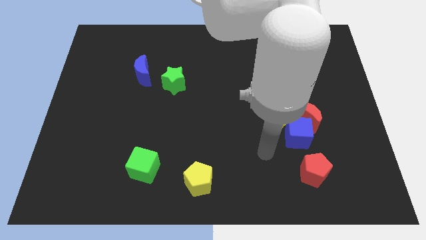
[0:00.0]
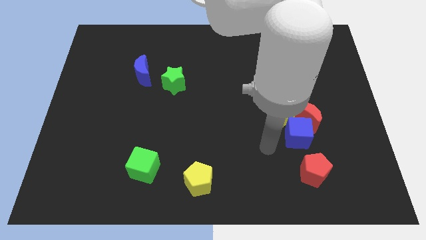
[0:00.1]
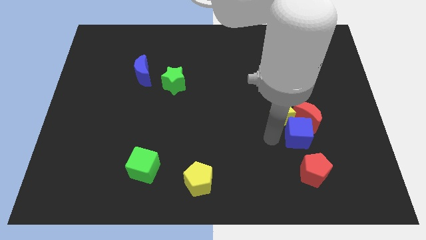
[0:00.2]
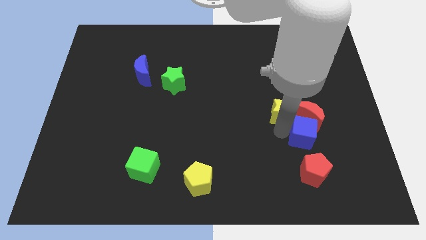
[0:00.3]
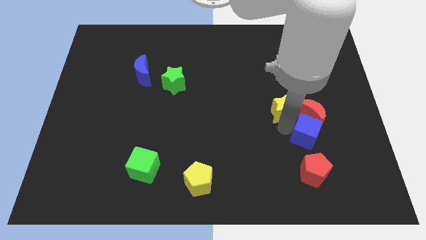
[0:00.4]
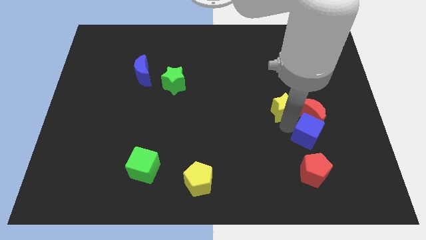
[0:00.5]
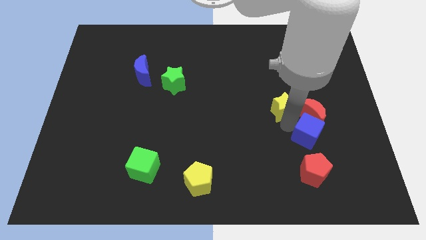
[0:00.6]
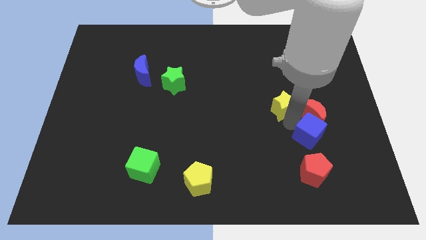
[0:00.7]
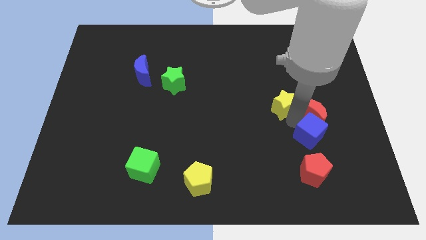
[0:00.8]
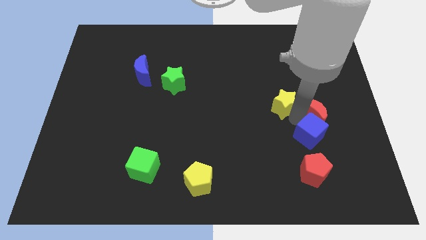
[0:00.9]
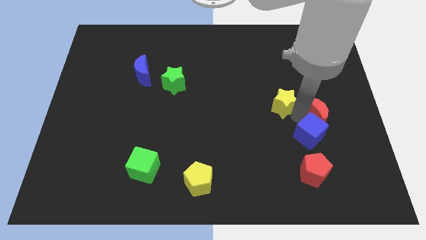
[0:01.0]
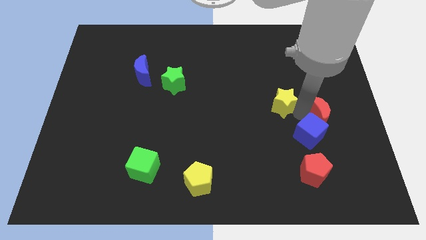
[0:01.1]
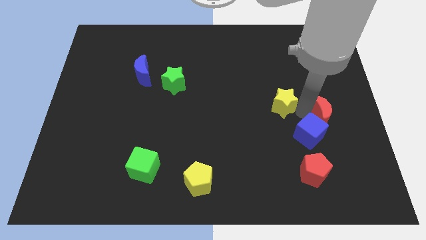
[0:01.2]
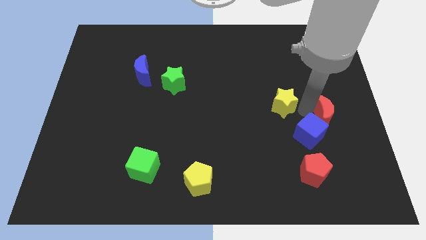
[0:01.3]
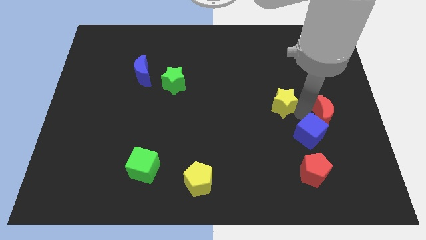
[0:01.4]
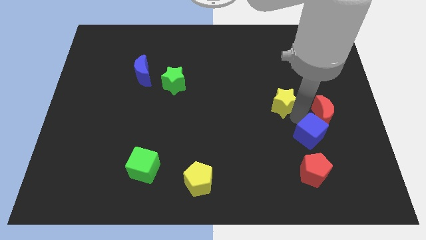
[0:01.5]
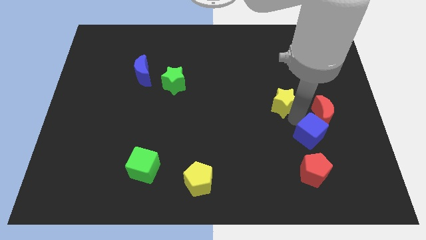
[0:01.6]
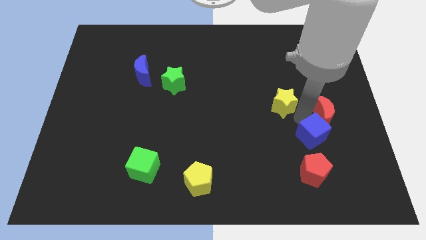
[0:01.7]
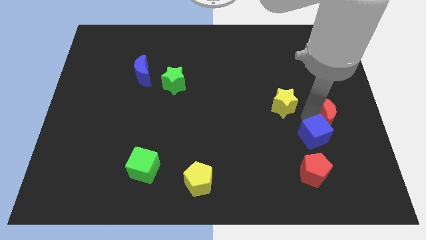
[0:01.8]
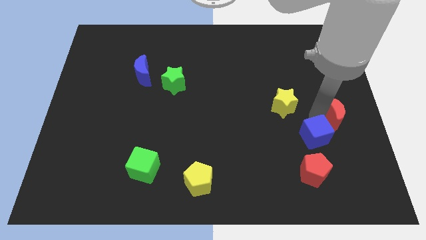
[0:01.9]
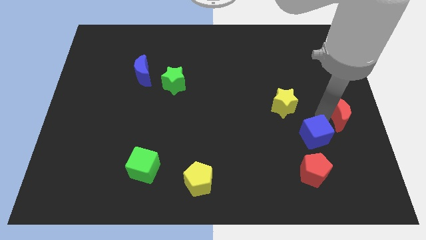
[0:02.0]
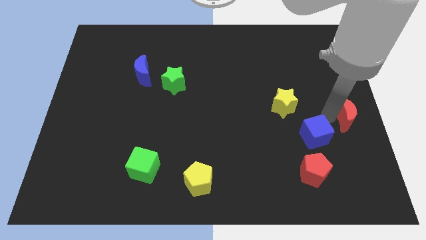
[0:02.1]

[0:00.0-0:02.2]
separate the red moon from the blue cube and yellow star

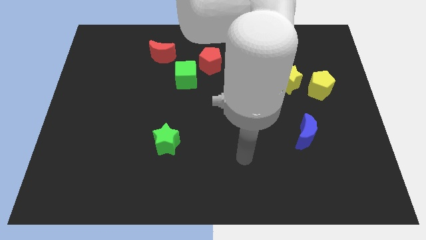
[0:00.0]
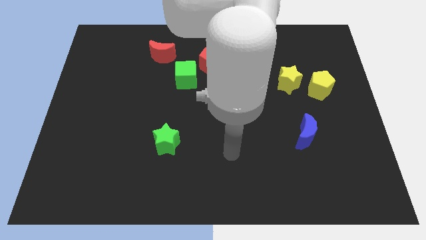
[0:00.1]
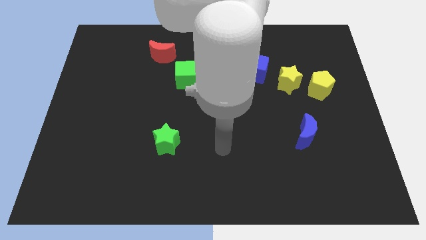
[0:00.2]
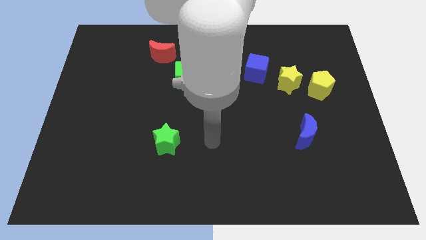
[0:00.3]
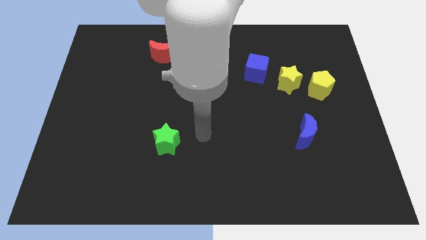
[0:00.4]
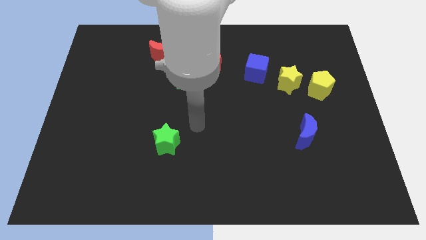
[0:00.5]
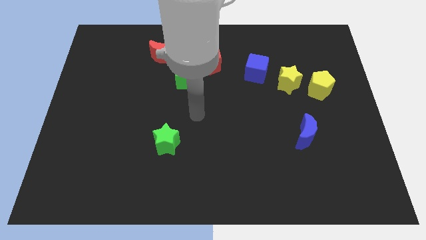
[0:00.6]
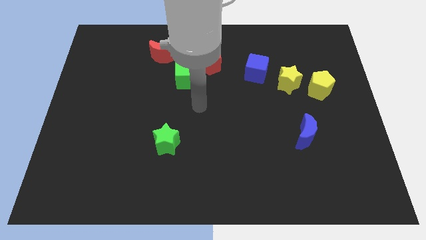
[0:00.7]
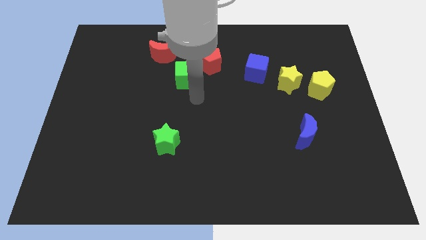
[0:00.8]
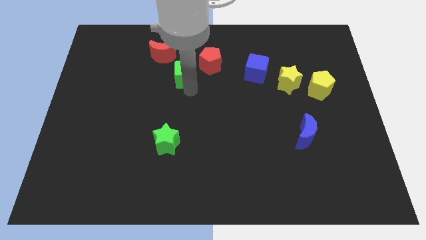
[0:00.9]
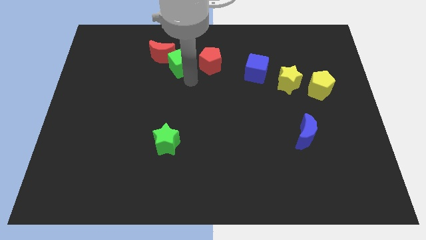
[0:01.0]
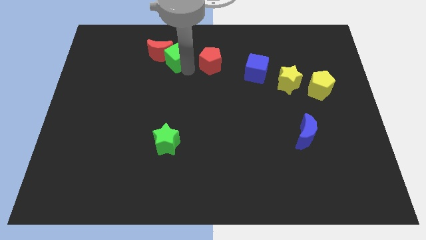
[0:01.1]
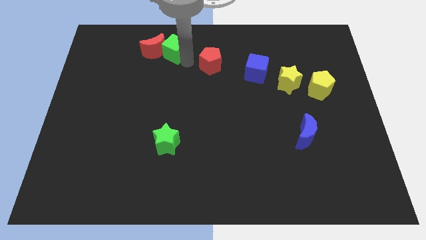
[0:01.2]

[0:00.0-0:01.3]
separate the red pentagon from the green cube

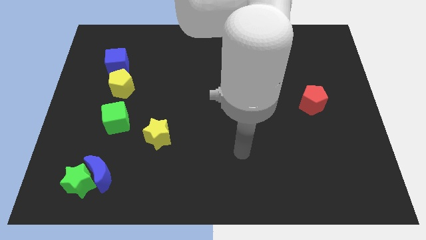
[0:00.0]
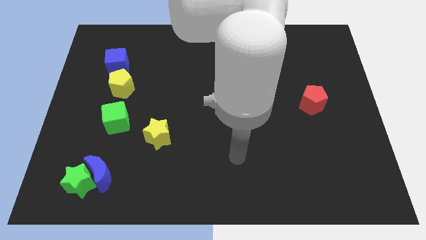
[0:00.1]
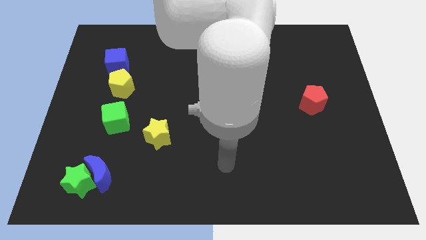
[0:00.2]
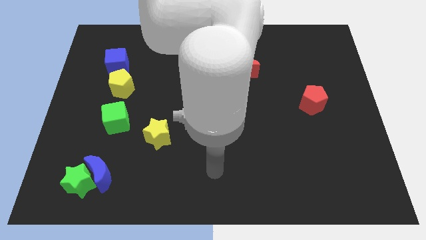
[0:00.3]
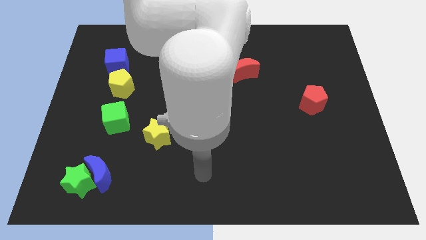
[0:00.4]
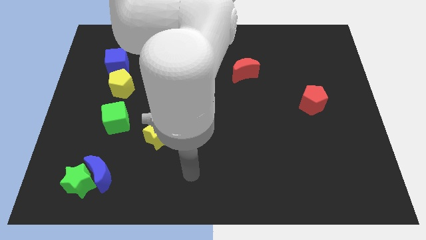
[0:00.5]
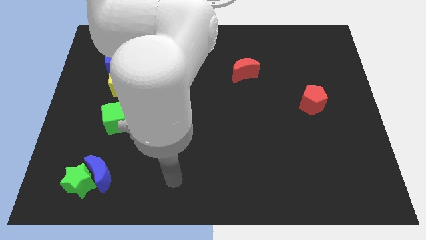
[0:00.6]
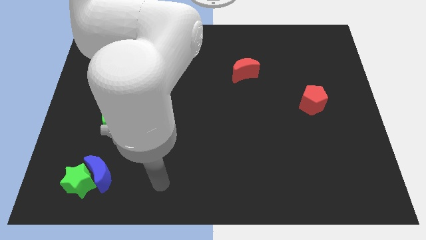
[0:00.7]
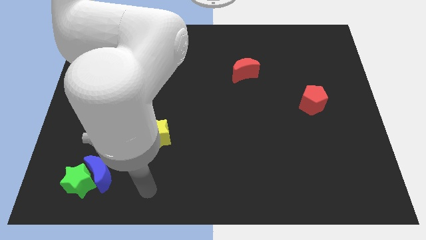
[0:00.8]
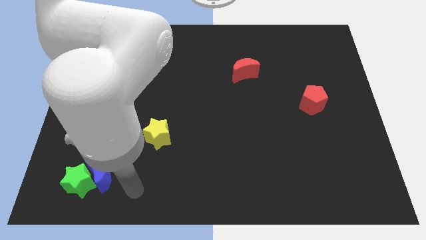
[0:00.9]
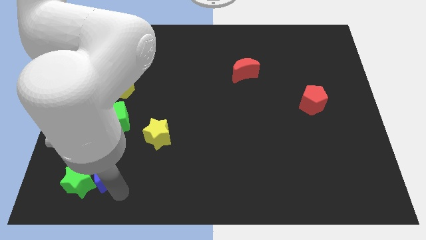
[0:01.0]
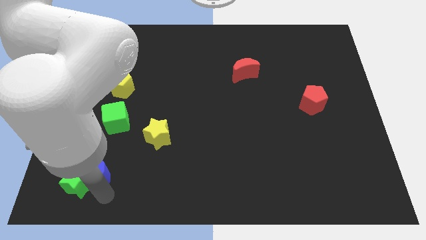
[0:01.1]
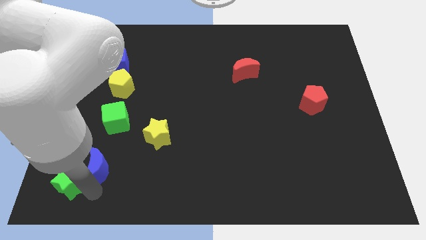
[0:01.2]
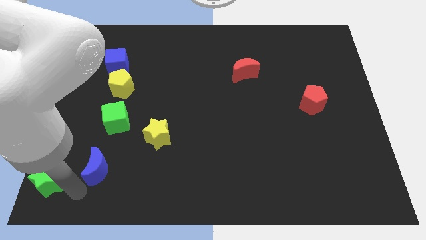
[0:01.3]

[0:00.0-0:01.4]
separate the blue moon from the green star

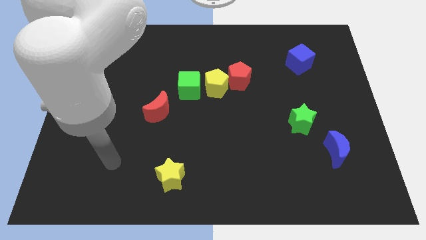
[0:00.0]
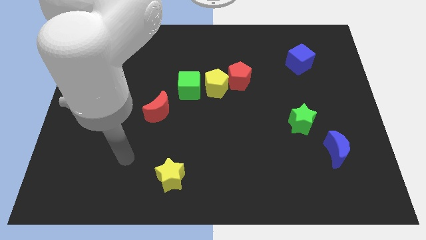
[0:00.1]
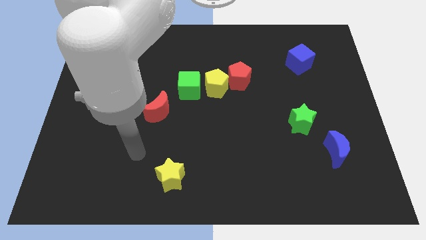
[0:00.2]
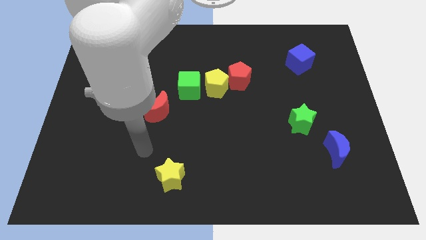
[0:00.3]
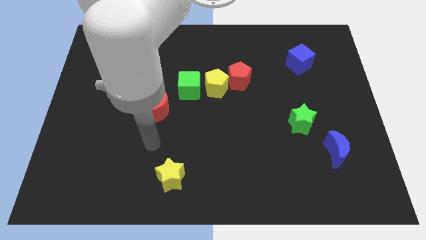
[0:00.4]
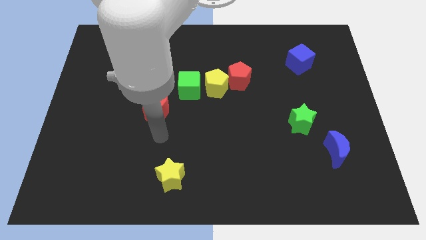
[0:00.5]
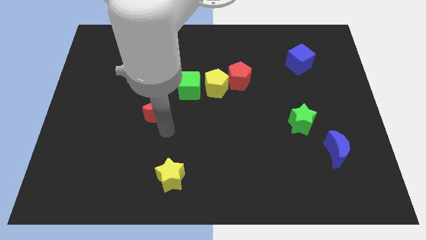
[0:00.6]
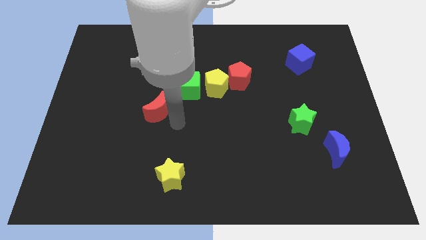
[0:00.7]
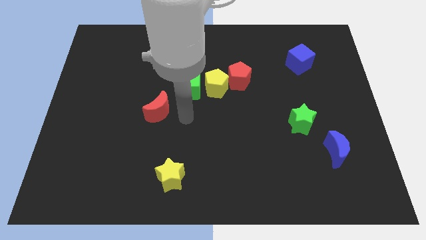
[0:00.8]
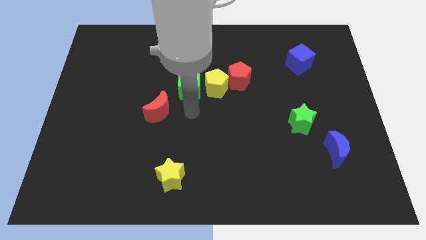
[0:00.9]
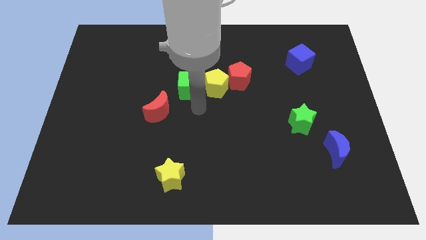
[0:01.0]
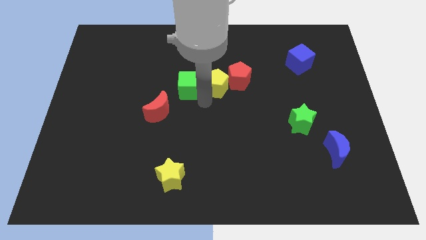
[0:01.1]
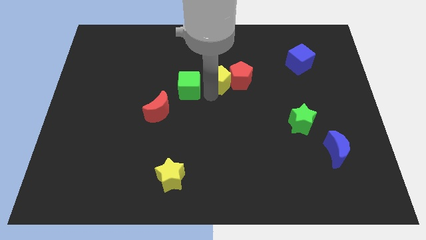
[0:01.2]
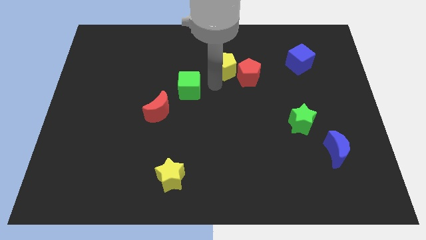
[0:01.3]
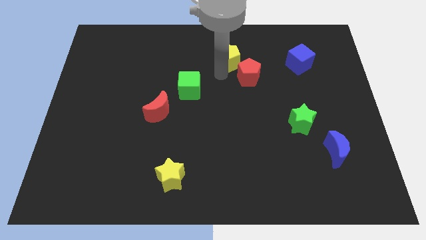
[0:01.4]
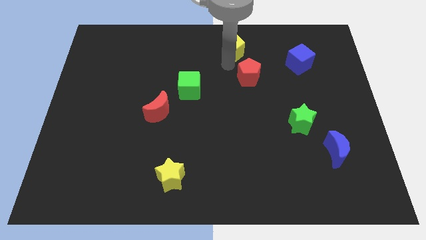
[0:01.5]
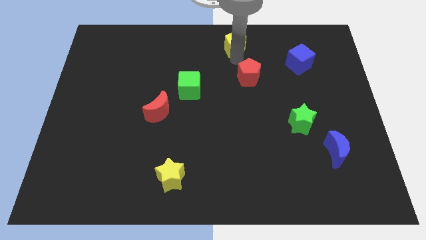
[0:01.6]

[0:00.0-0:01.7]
separate the red pentagon from the yellow pentagon

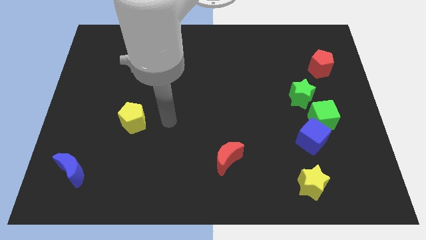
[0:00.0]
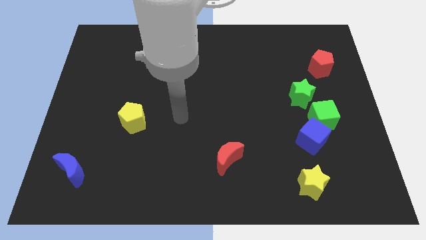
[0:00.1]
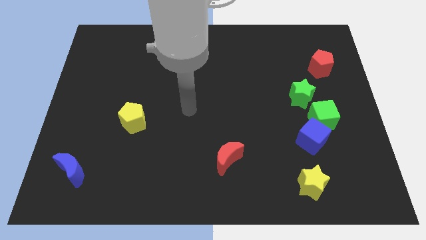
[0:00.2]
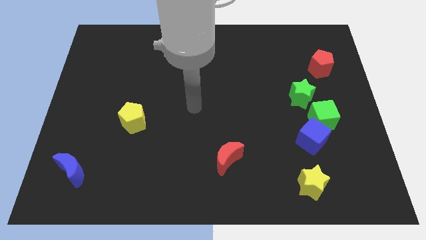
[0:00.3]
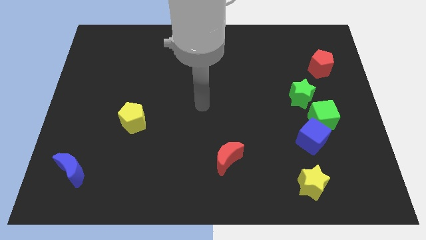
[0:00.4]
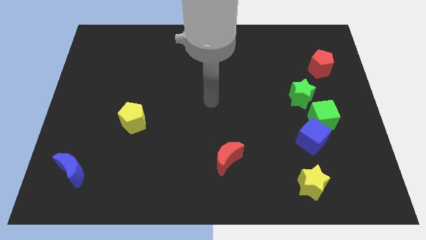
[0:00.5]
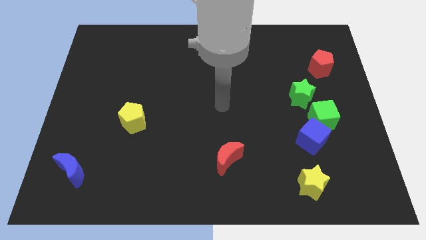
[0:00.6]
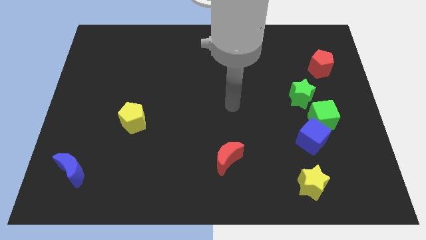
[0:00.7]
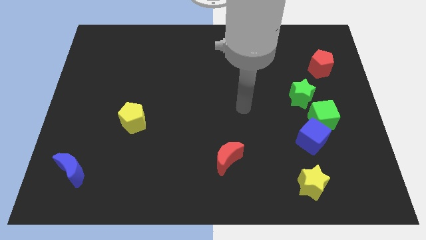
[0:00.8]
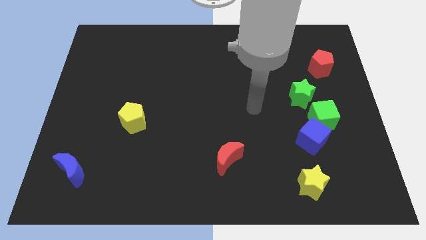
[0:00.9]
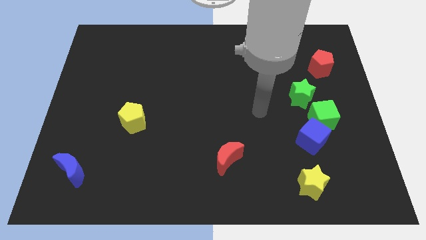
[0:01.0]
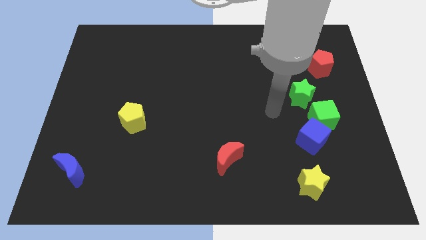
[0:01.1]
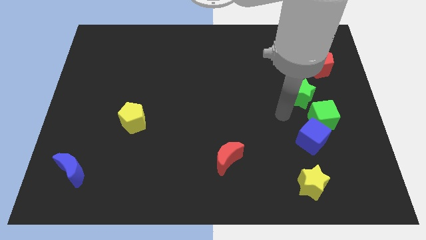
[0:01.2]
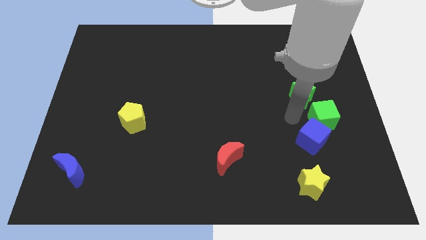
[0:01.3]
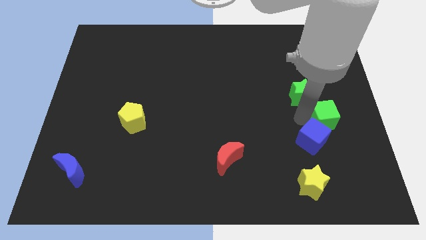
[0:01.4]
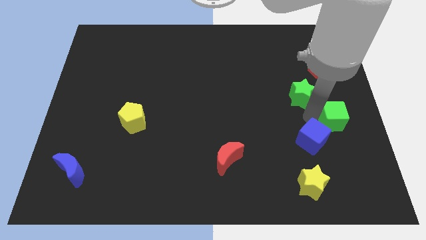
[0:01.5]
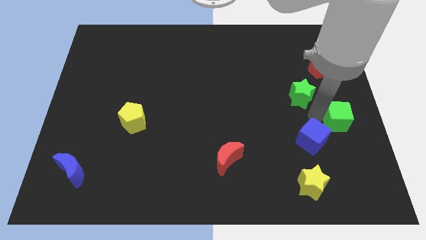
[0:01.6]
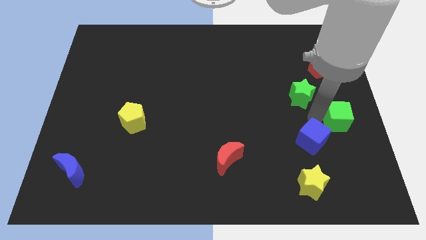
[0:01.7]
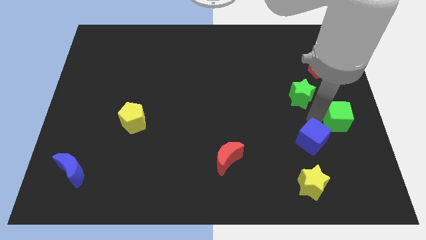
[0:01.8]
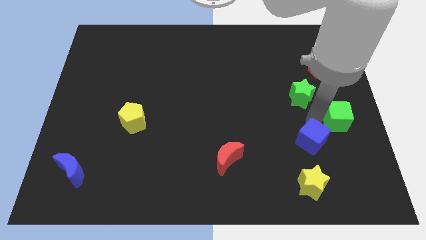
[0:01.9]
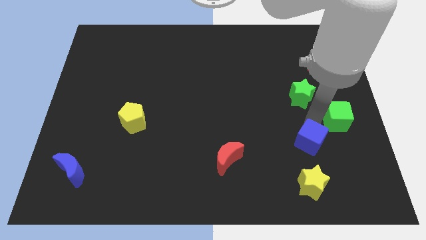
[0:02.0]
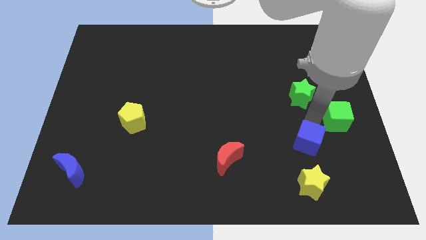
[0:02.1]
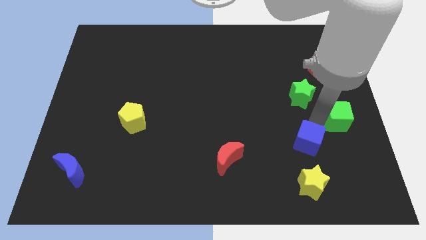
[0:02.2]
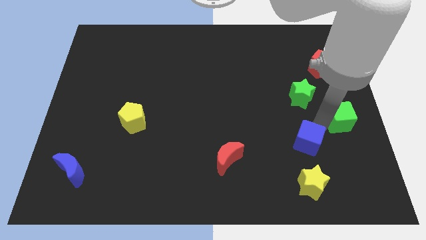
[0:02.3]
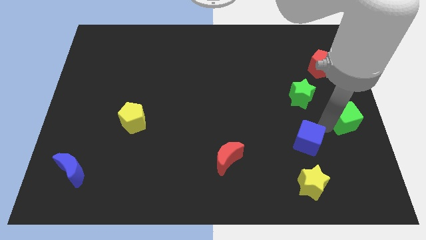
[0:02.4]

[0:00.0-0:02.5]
move the blue cube away from the green cube

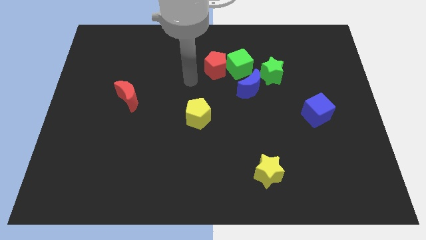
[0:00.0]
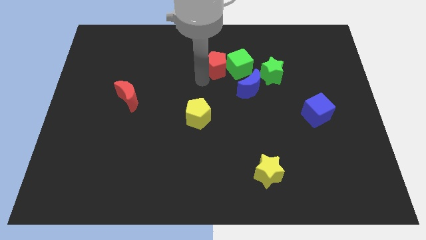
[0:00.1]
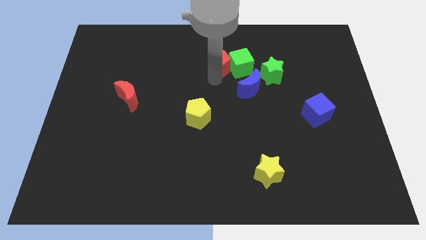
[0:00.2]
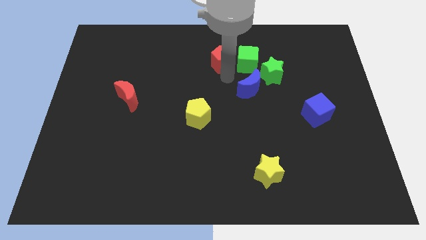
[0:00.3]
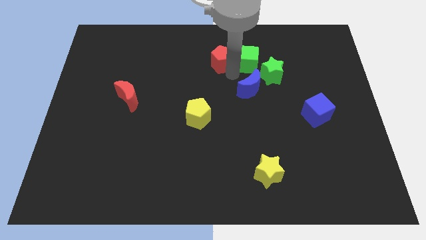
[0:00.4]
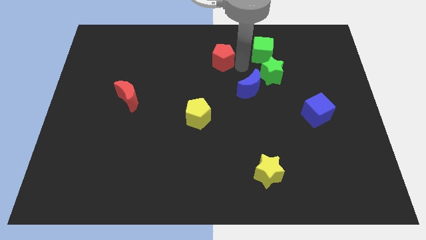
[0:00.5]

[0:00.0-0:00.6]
move the red pentagon away from the green cube
